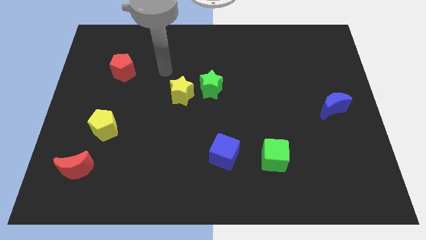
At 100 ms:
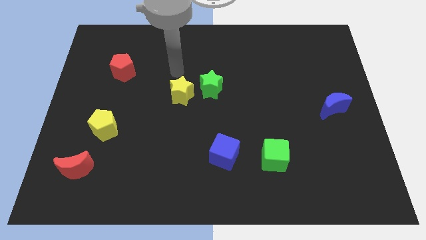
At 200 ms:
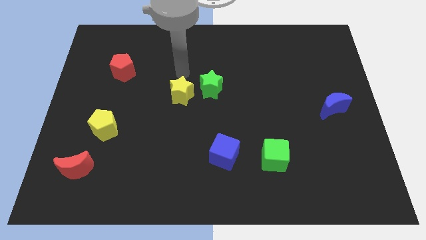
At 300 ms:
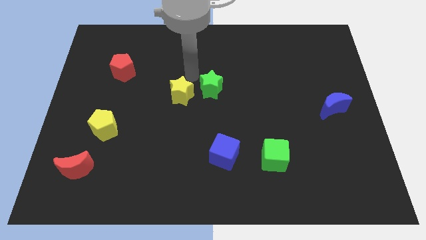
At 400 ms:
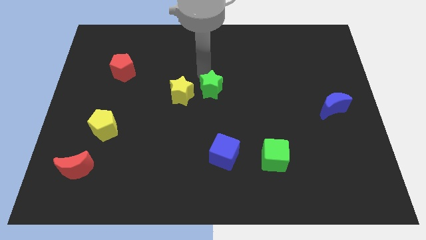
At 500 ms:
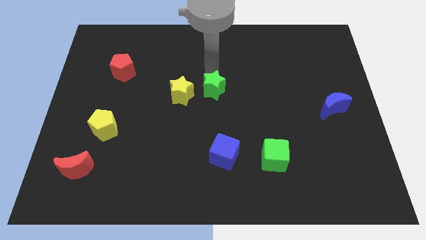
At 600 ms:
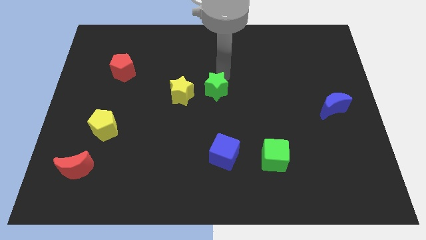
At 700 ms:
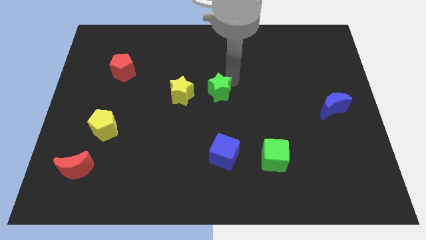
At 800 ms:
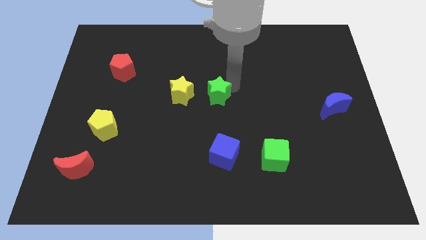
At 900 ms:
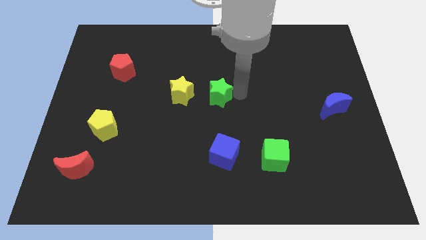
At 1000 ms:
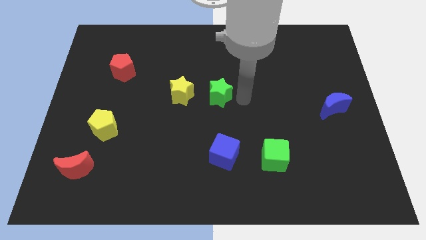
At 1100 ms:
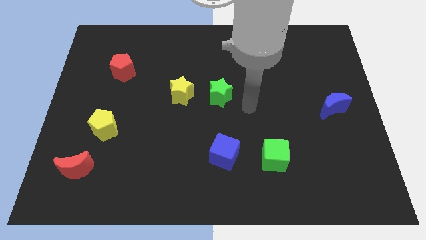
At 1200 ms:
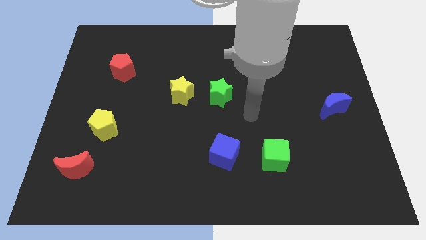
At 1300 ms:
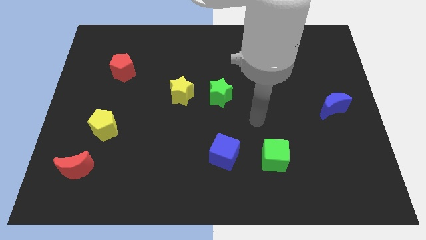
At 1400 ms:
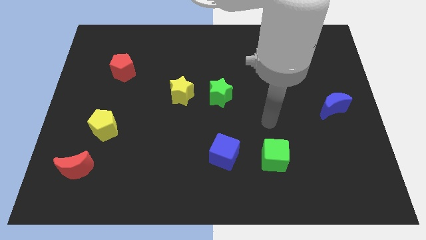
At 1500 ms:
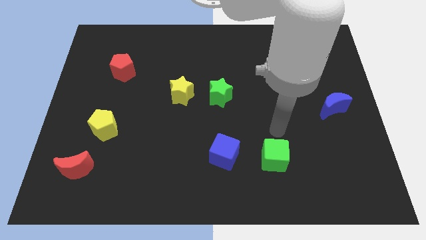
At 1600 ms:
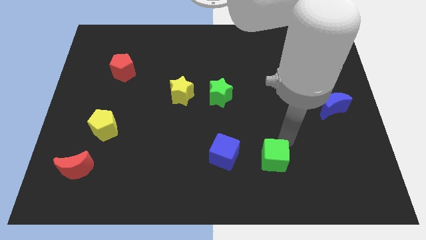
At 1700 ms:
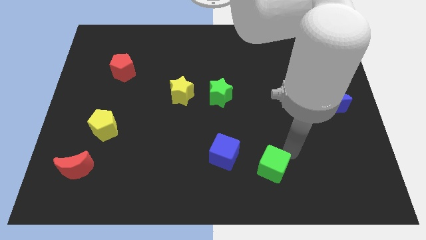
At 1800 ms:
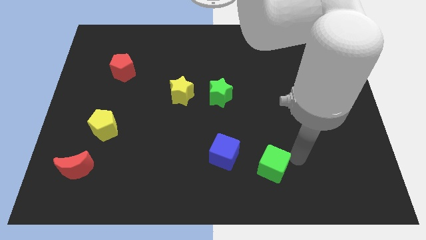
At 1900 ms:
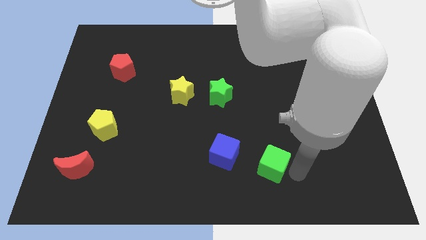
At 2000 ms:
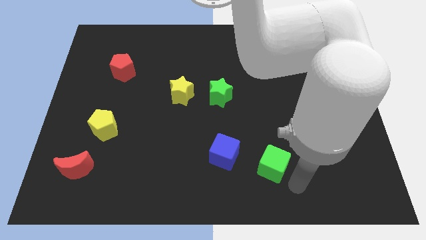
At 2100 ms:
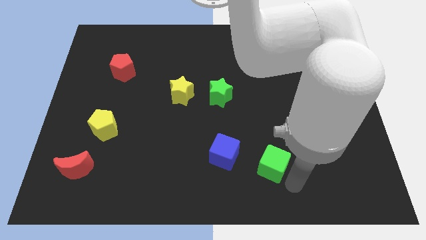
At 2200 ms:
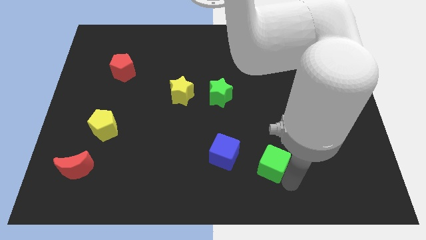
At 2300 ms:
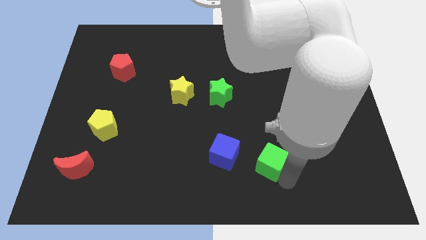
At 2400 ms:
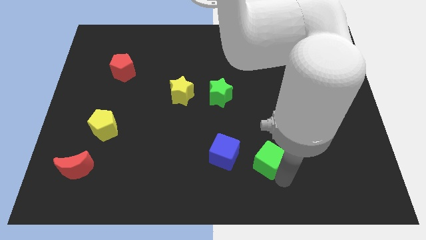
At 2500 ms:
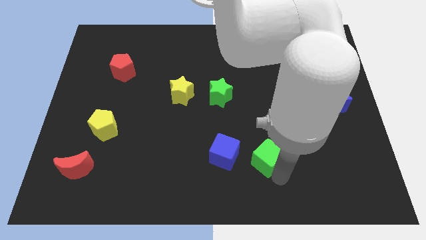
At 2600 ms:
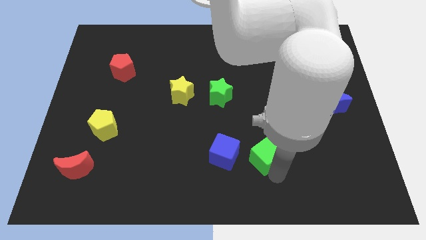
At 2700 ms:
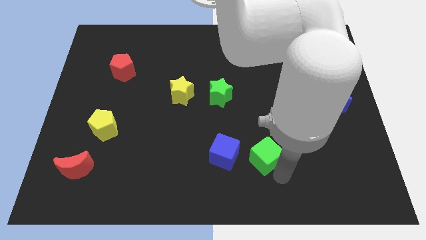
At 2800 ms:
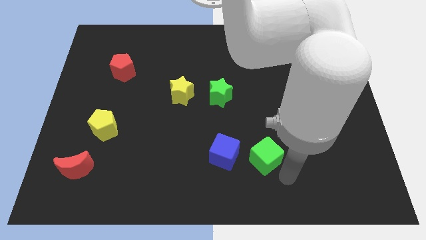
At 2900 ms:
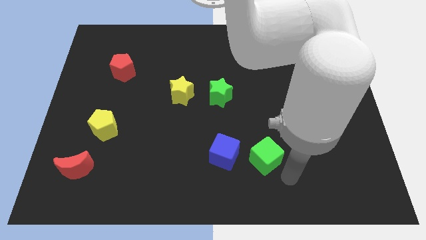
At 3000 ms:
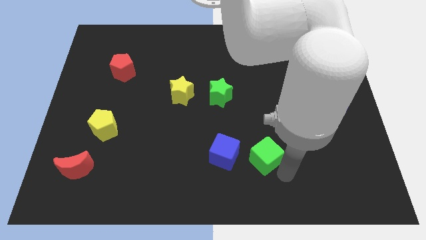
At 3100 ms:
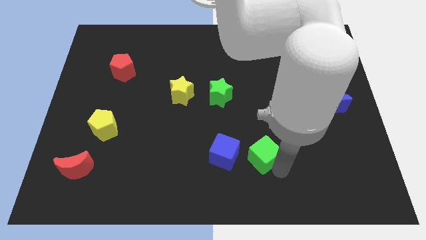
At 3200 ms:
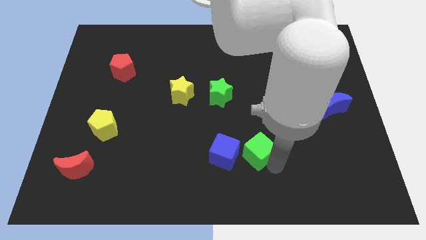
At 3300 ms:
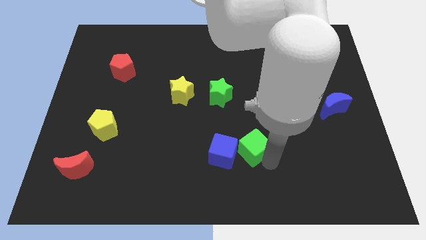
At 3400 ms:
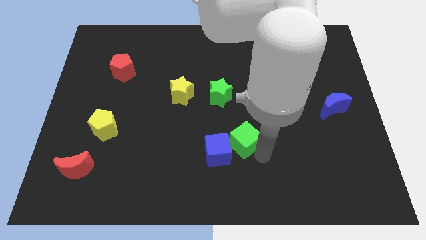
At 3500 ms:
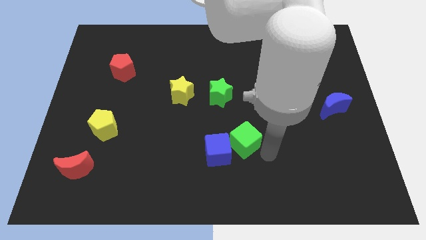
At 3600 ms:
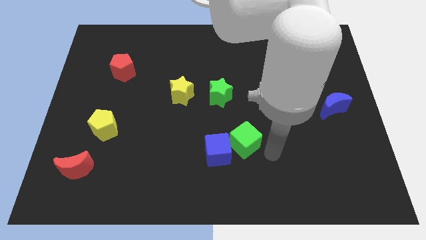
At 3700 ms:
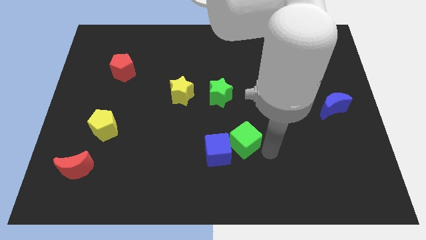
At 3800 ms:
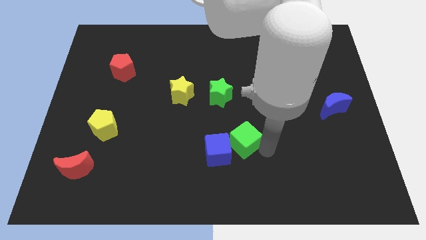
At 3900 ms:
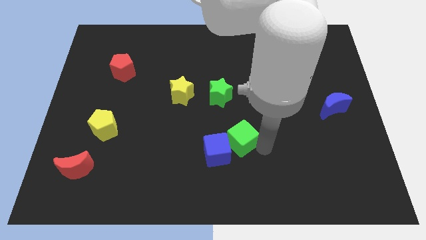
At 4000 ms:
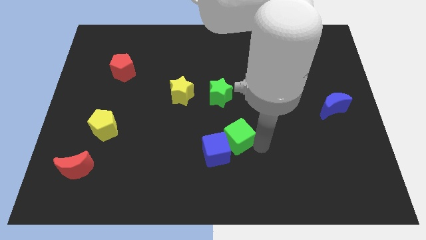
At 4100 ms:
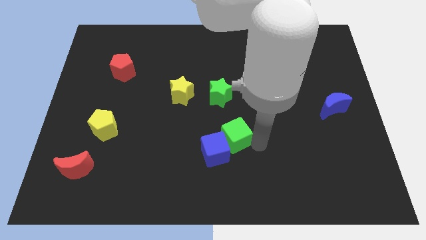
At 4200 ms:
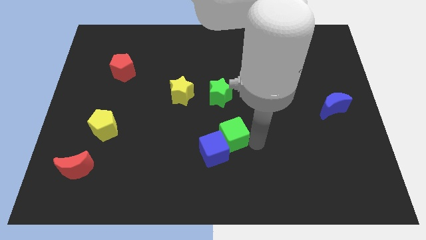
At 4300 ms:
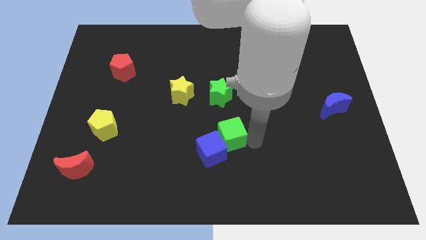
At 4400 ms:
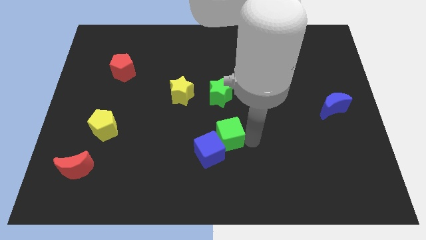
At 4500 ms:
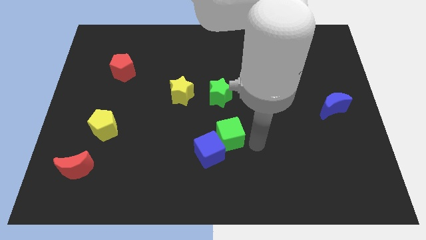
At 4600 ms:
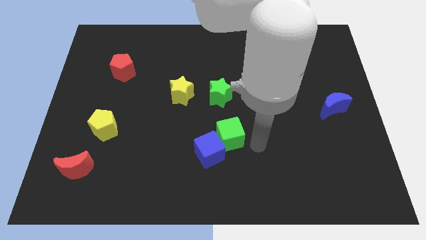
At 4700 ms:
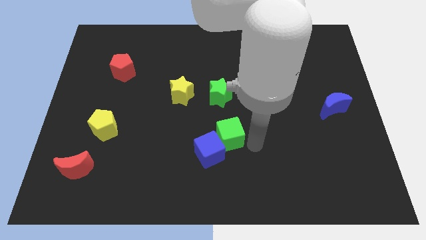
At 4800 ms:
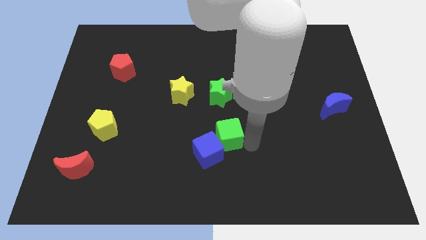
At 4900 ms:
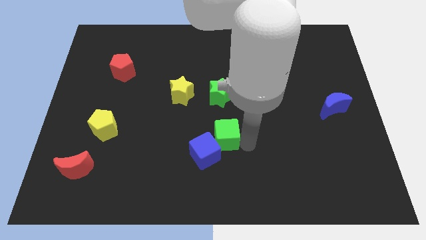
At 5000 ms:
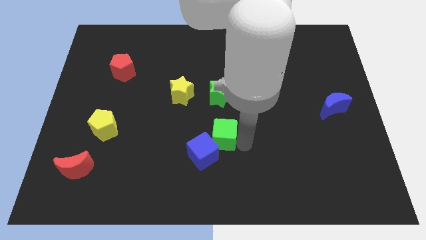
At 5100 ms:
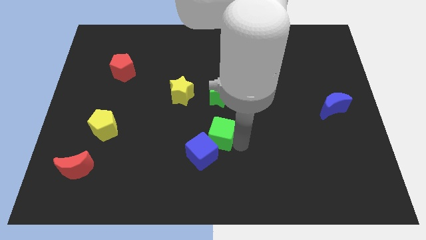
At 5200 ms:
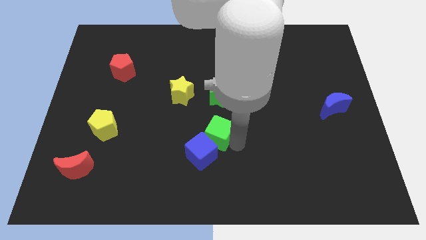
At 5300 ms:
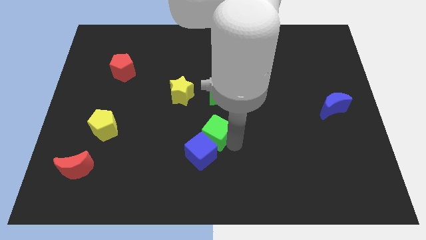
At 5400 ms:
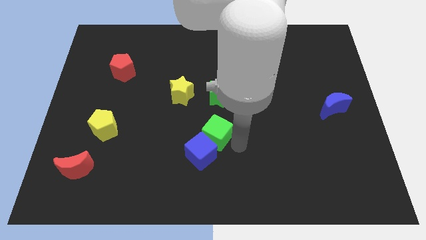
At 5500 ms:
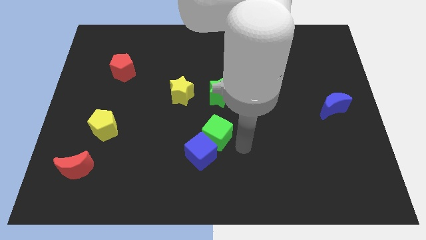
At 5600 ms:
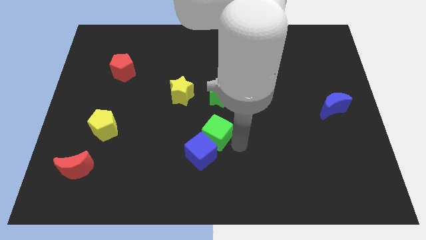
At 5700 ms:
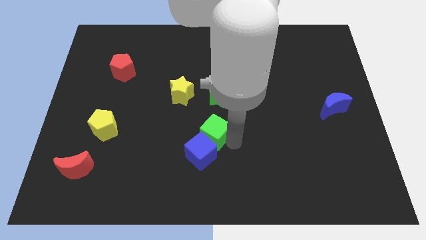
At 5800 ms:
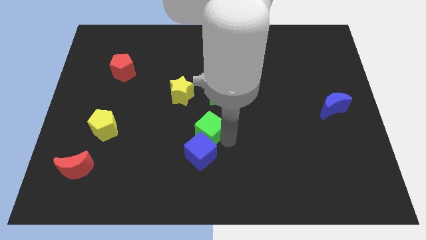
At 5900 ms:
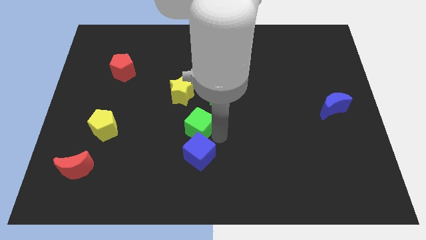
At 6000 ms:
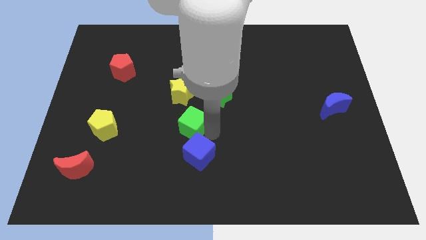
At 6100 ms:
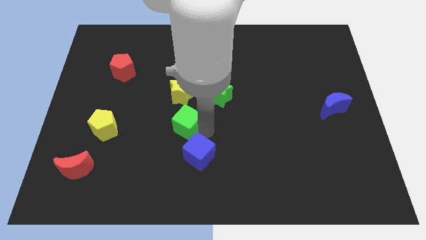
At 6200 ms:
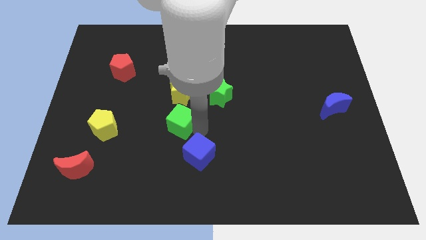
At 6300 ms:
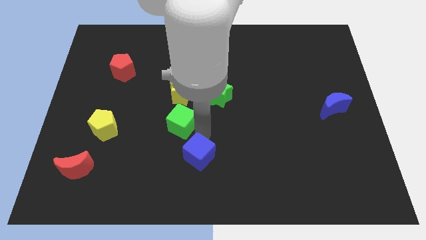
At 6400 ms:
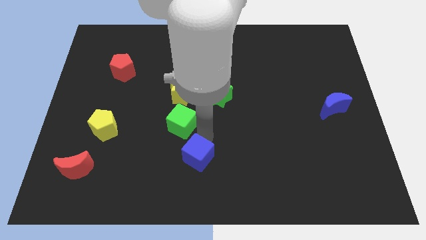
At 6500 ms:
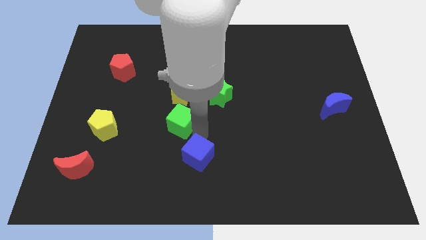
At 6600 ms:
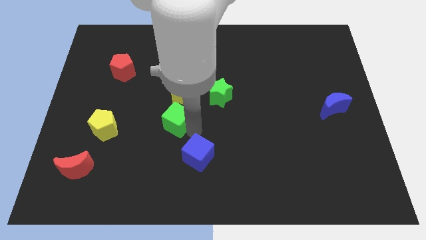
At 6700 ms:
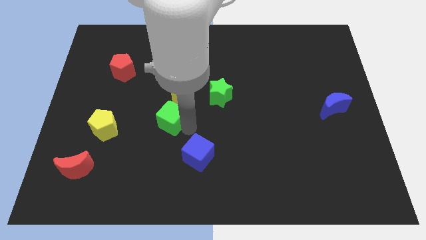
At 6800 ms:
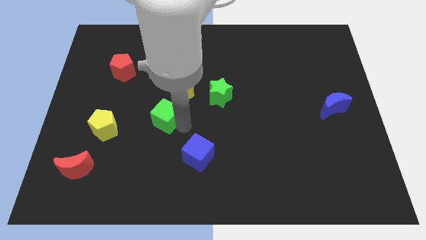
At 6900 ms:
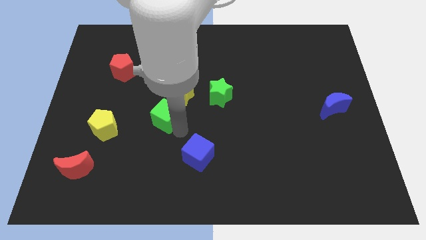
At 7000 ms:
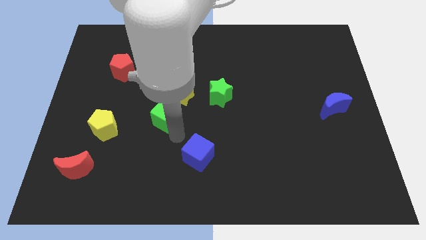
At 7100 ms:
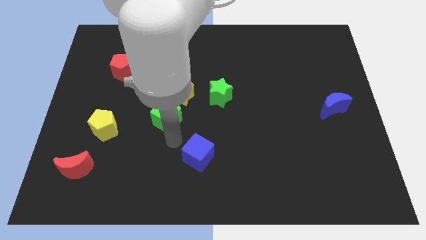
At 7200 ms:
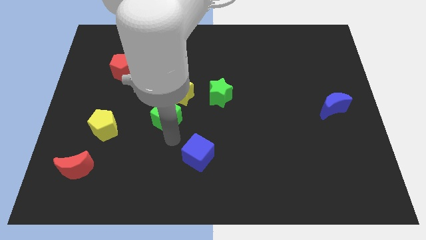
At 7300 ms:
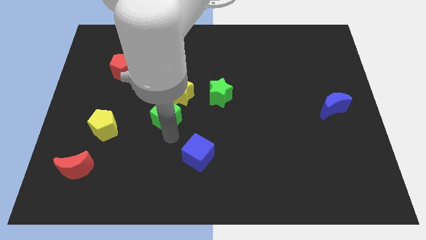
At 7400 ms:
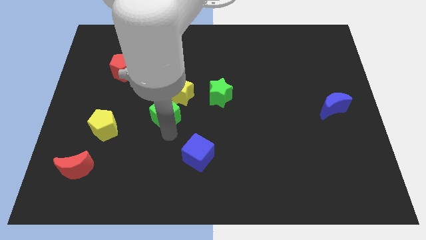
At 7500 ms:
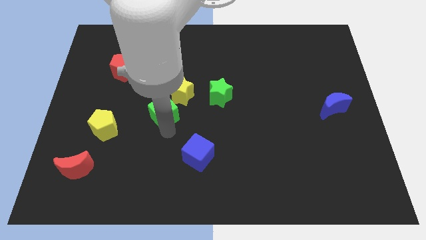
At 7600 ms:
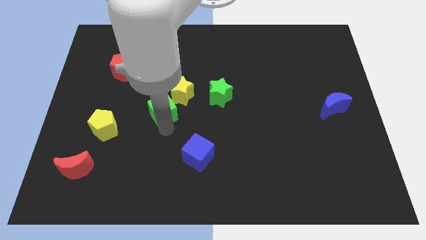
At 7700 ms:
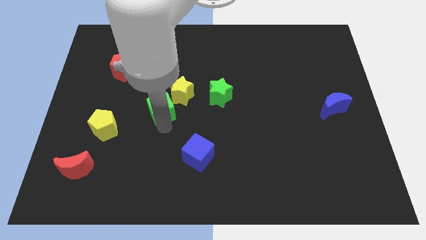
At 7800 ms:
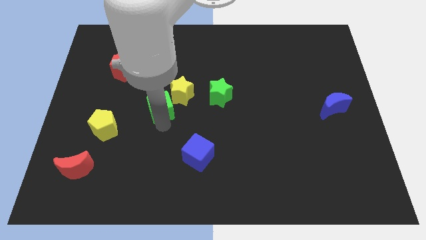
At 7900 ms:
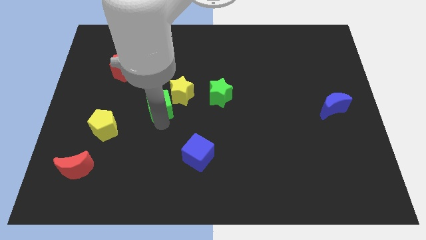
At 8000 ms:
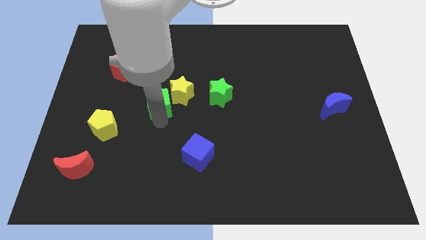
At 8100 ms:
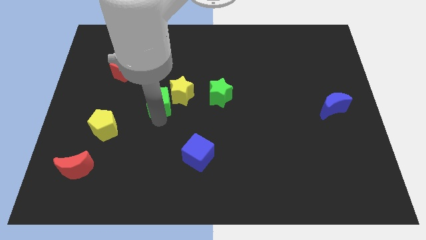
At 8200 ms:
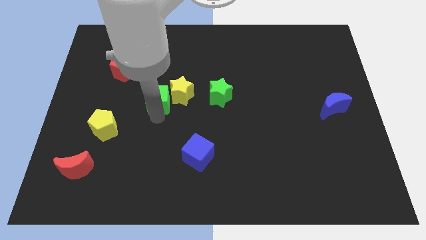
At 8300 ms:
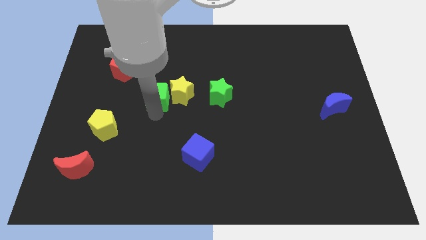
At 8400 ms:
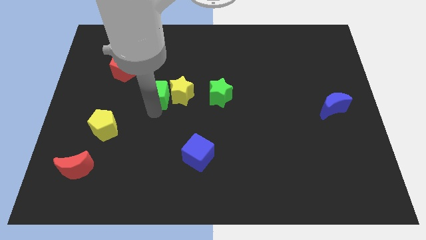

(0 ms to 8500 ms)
slide the green cube to the top left of the yellow star
